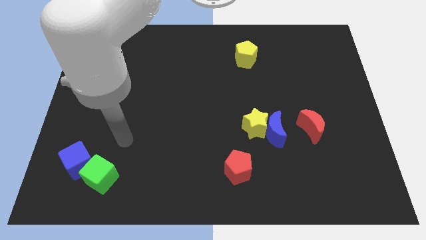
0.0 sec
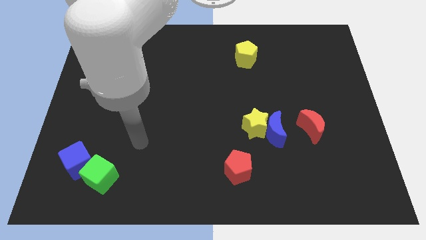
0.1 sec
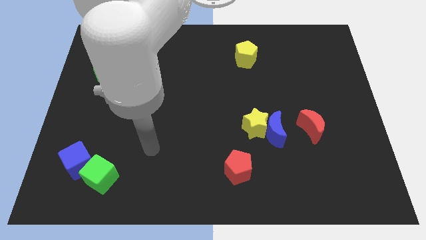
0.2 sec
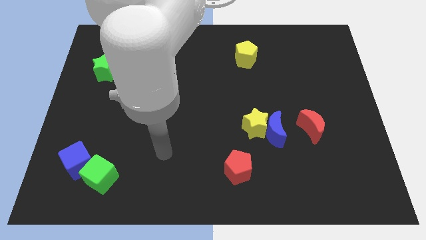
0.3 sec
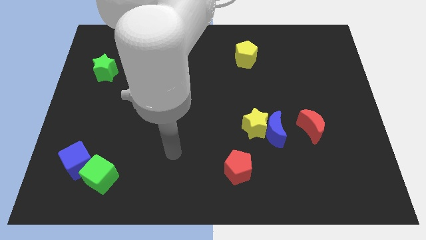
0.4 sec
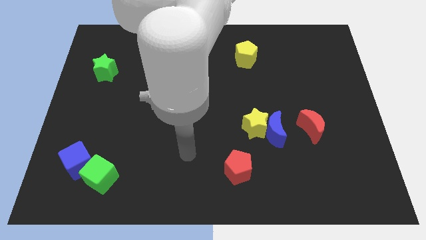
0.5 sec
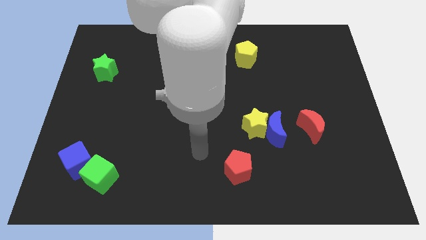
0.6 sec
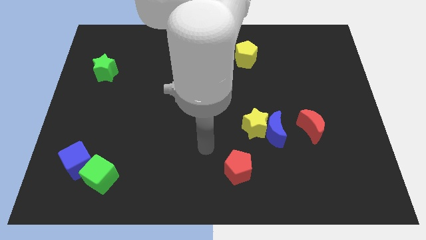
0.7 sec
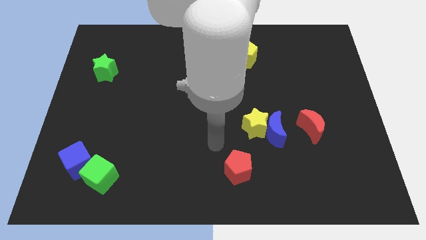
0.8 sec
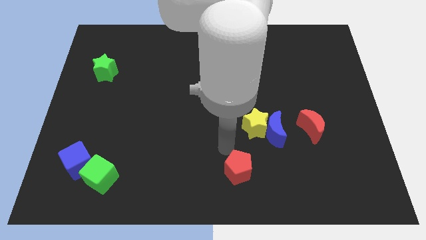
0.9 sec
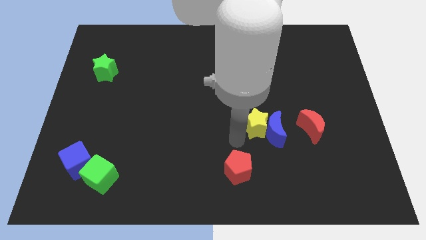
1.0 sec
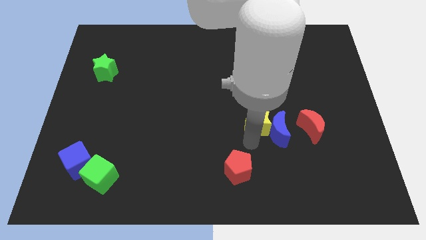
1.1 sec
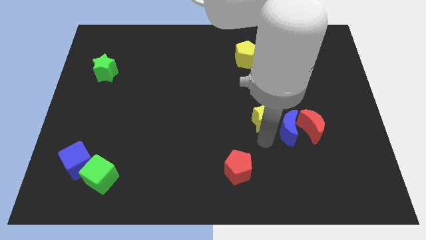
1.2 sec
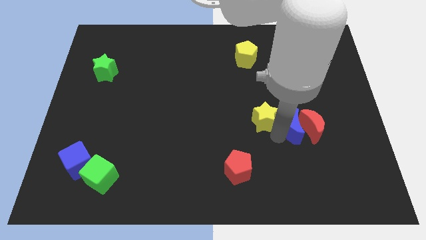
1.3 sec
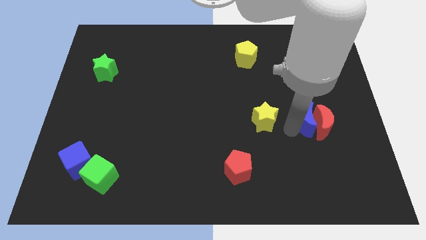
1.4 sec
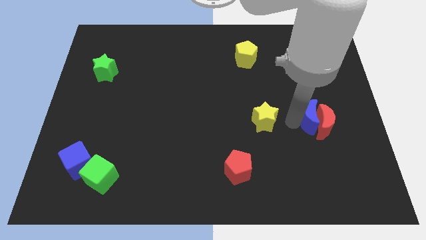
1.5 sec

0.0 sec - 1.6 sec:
separate the yellow star from the blue moon

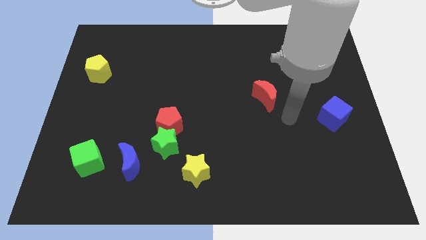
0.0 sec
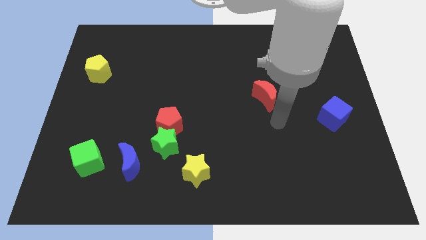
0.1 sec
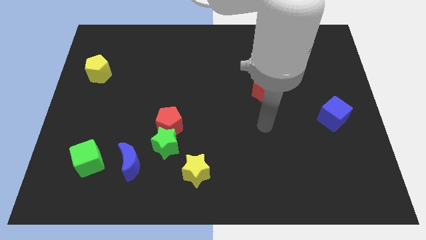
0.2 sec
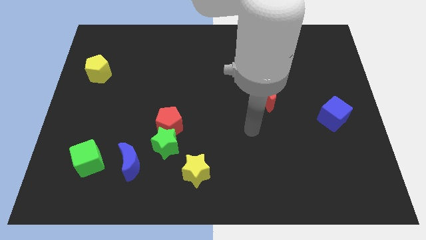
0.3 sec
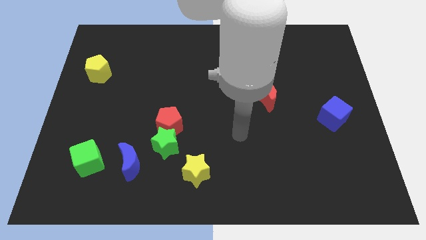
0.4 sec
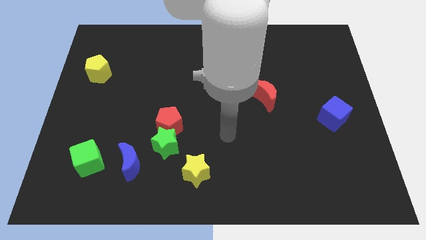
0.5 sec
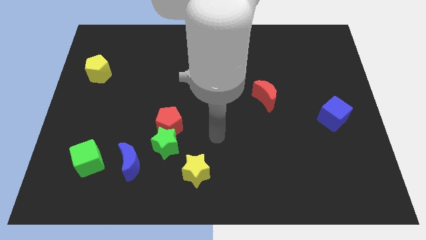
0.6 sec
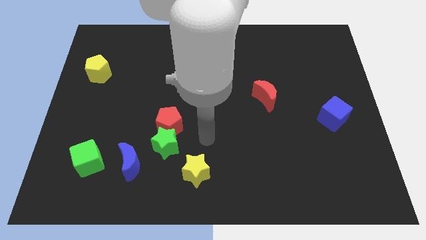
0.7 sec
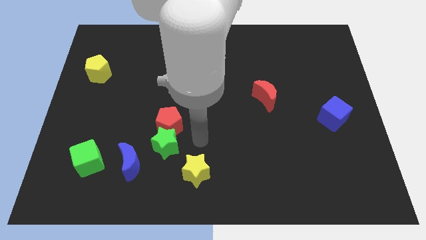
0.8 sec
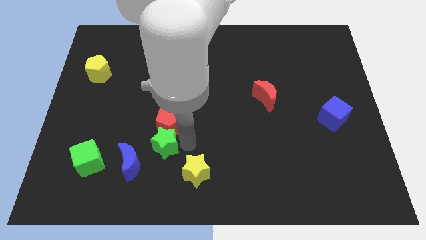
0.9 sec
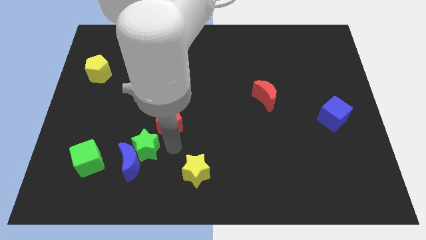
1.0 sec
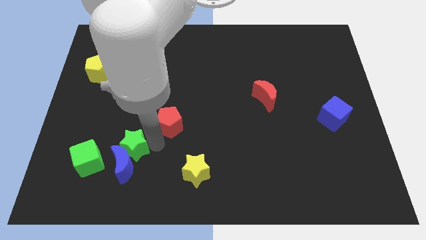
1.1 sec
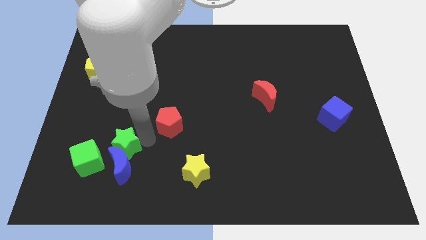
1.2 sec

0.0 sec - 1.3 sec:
pull the red pentagon apart from the green star

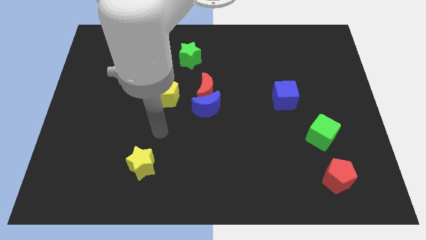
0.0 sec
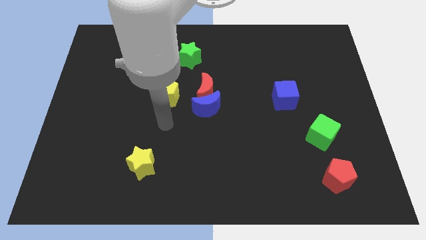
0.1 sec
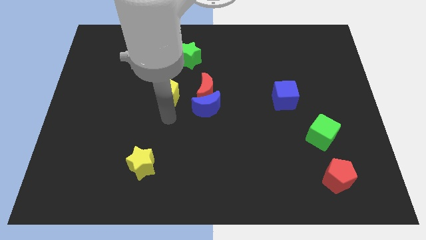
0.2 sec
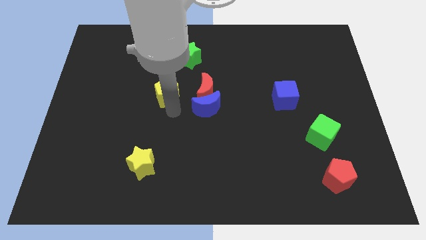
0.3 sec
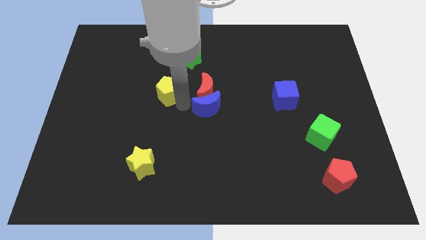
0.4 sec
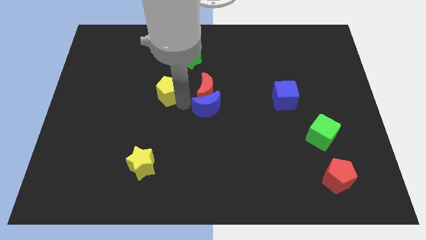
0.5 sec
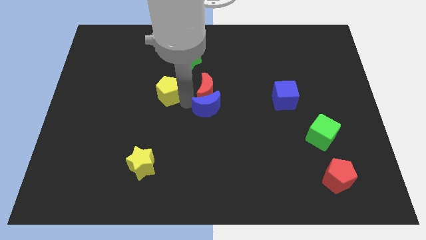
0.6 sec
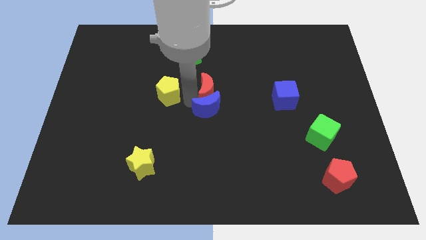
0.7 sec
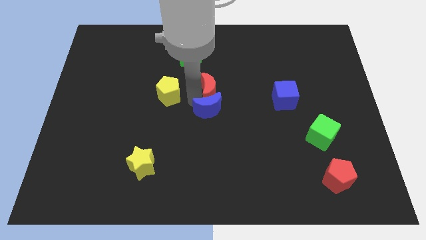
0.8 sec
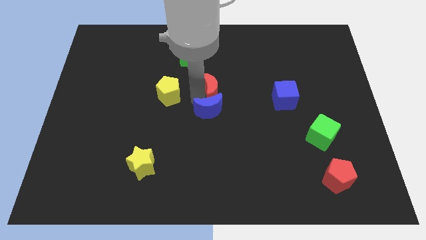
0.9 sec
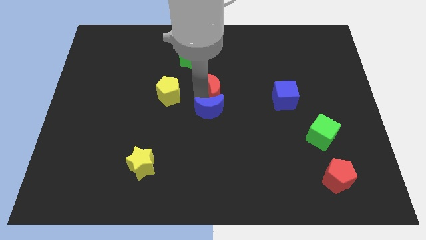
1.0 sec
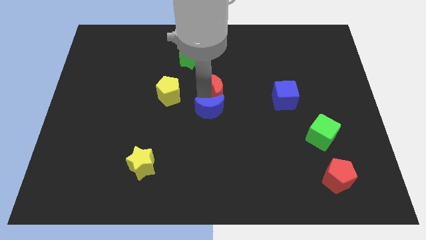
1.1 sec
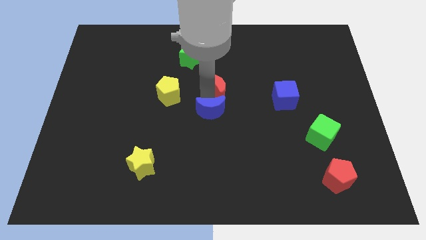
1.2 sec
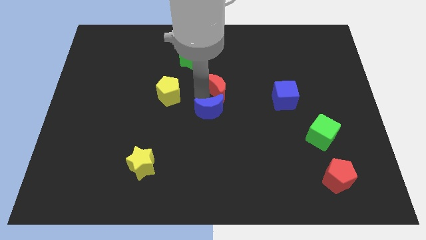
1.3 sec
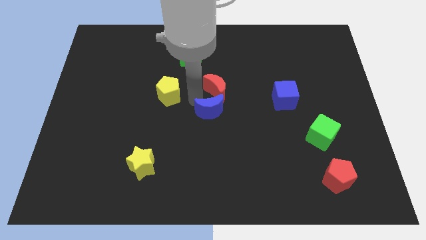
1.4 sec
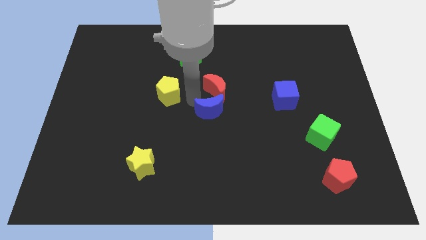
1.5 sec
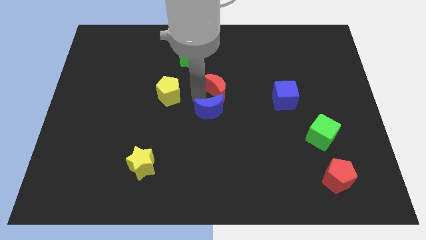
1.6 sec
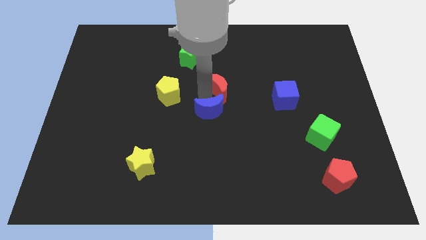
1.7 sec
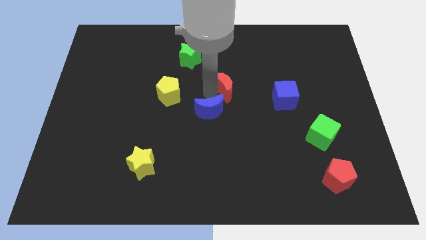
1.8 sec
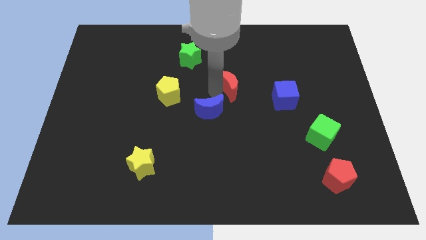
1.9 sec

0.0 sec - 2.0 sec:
pull the red moon apart from the blue moon and yellow pentagon

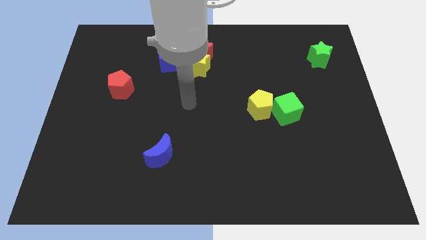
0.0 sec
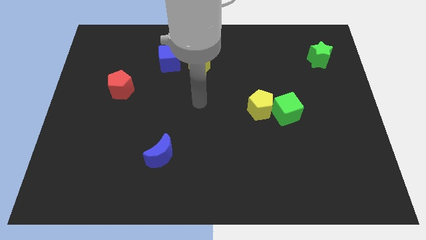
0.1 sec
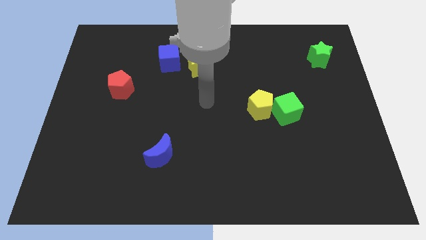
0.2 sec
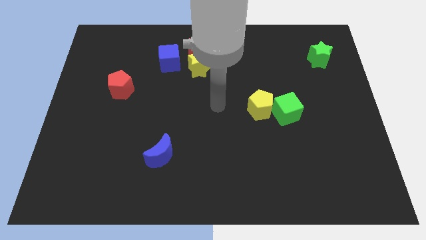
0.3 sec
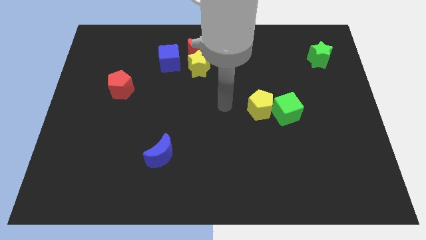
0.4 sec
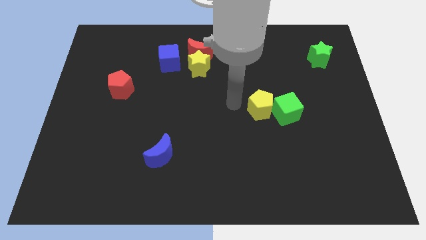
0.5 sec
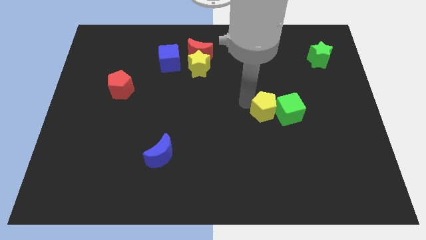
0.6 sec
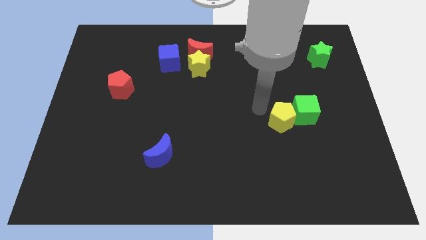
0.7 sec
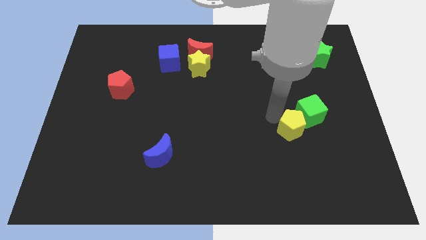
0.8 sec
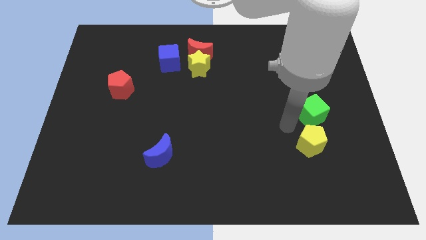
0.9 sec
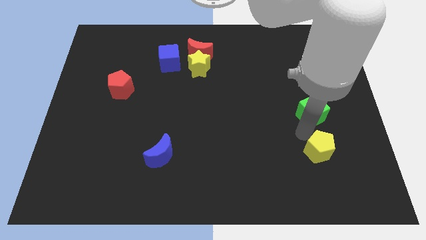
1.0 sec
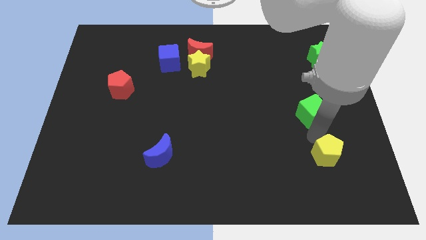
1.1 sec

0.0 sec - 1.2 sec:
move the green cube away from the yellow pentagon

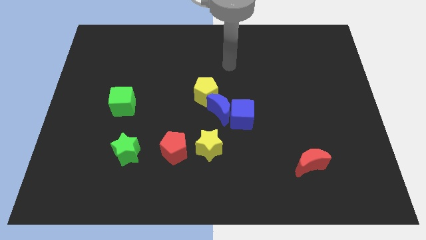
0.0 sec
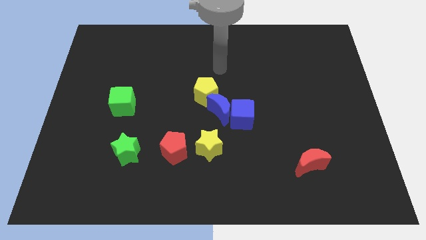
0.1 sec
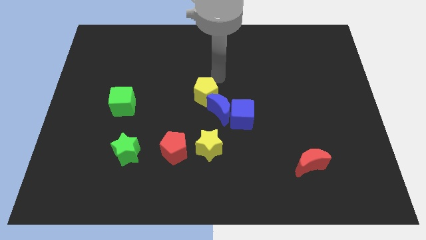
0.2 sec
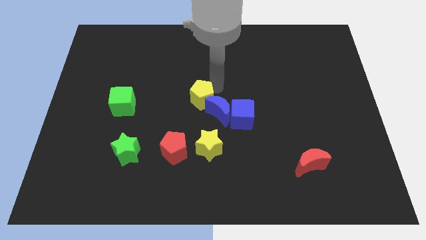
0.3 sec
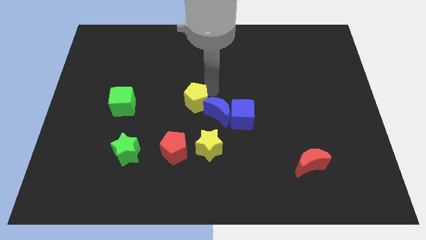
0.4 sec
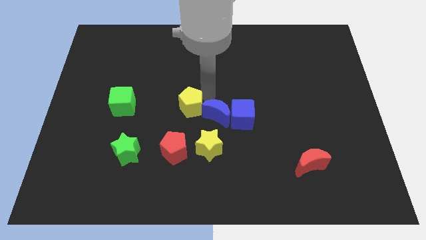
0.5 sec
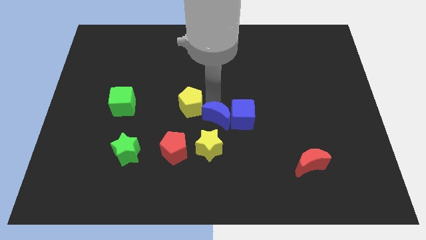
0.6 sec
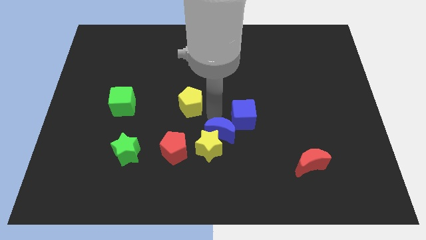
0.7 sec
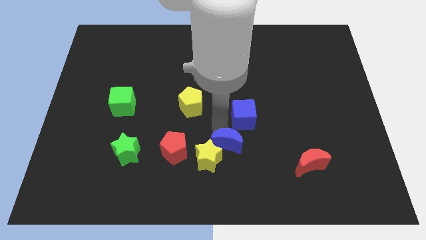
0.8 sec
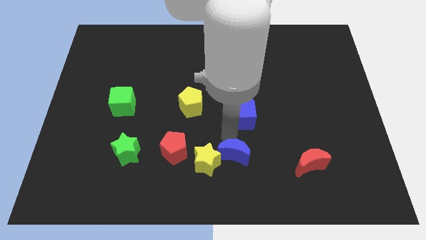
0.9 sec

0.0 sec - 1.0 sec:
pull the blue cube apart from the blue moon

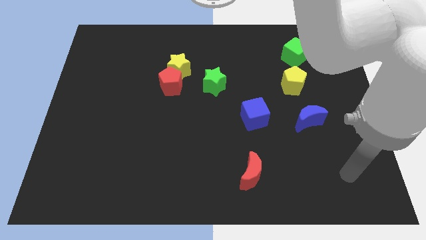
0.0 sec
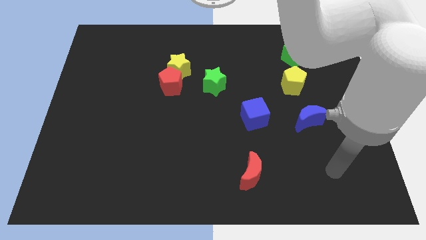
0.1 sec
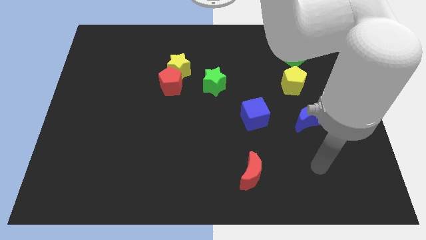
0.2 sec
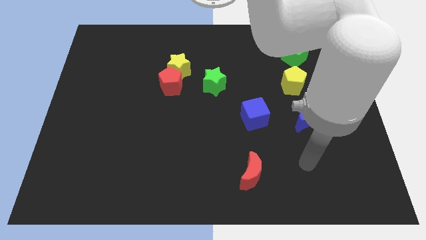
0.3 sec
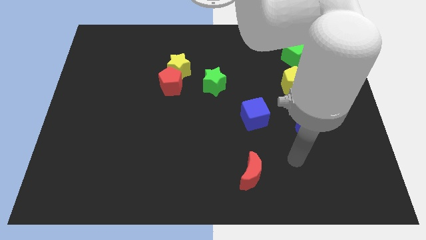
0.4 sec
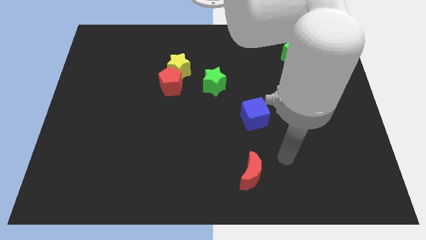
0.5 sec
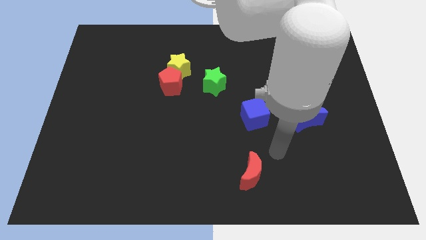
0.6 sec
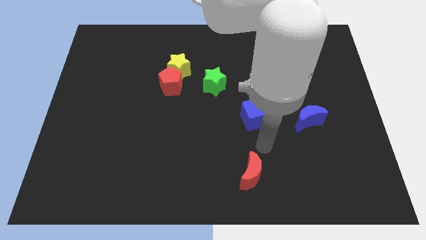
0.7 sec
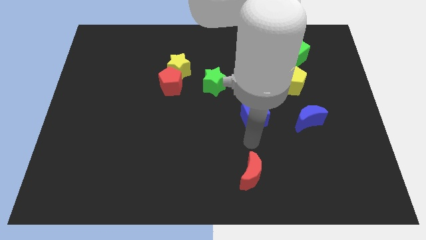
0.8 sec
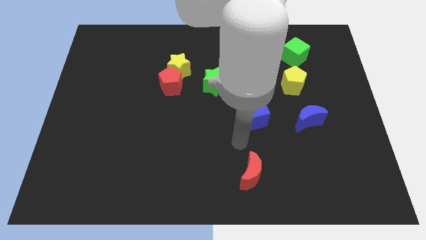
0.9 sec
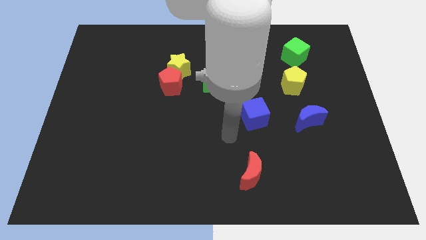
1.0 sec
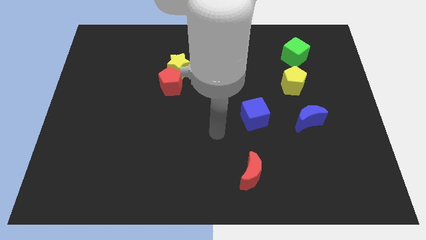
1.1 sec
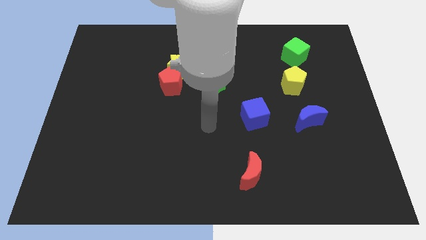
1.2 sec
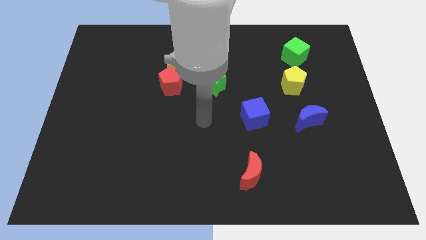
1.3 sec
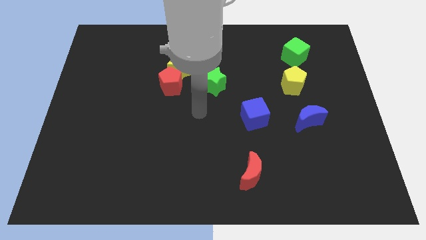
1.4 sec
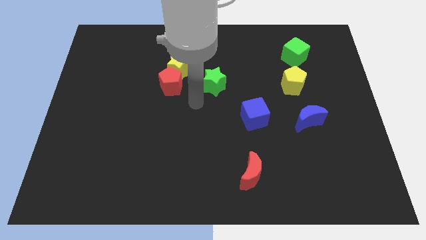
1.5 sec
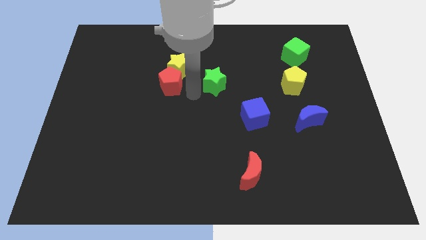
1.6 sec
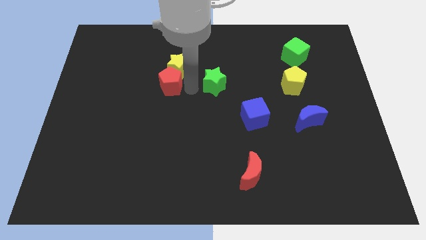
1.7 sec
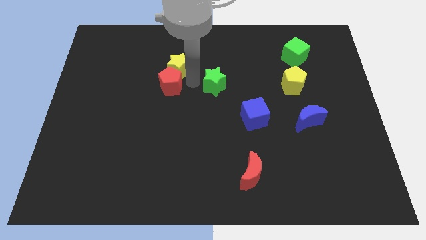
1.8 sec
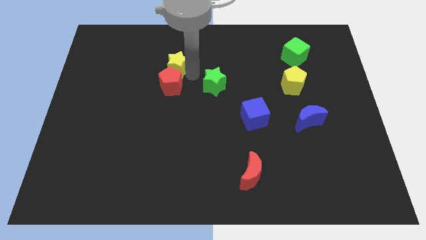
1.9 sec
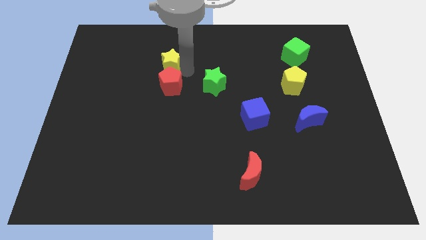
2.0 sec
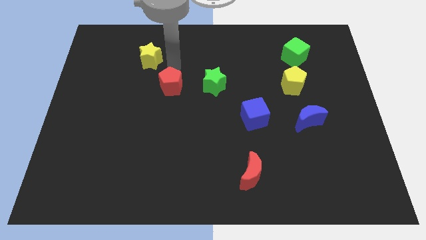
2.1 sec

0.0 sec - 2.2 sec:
move the red pentagon away from the yellow star
